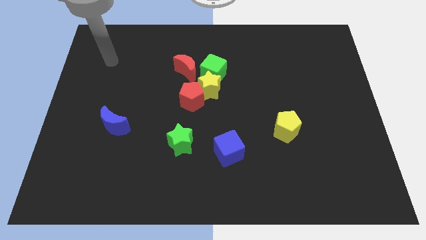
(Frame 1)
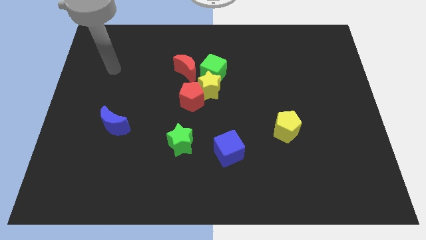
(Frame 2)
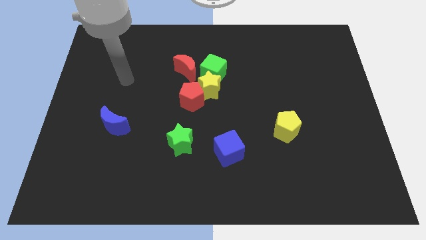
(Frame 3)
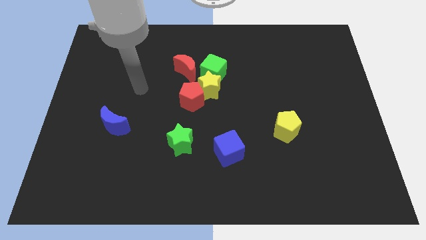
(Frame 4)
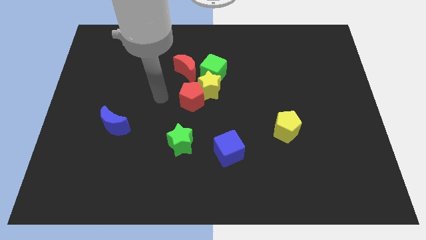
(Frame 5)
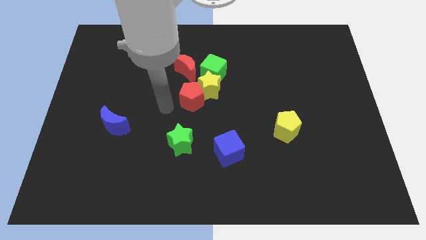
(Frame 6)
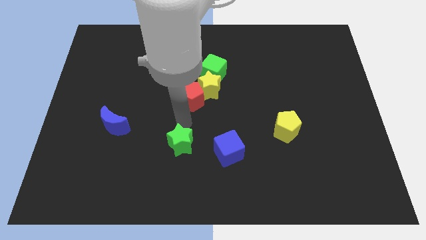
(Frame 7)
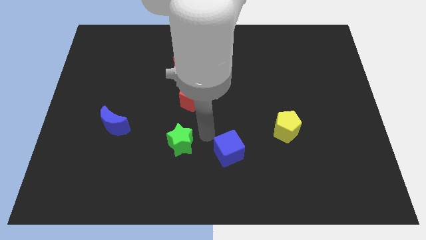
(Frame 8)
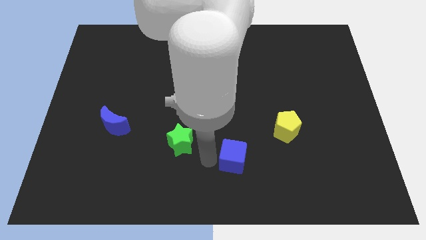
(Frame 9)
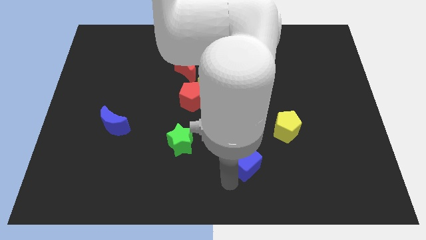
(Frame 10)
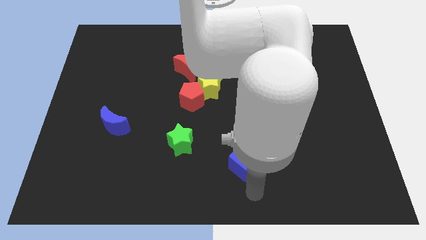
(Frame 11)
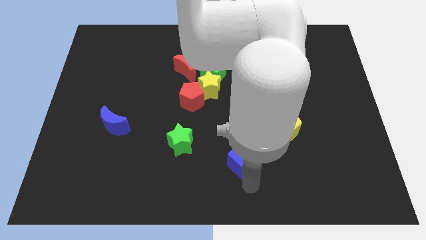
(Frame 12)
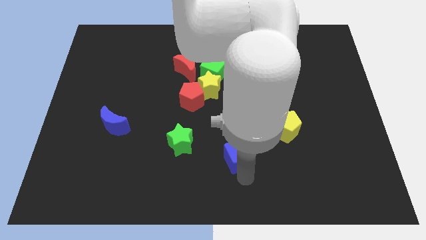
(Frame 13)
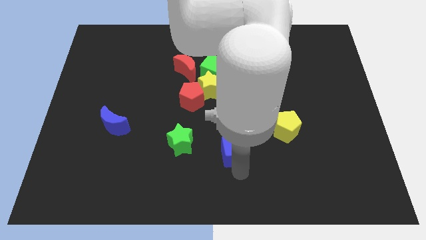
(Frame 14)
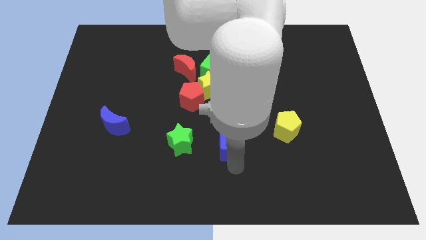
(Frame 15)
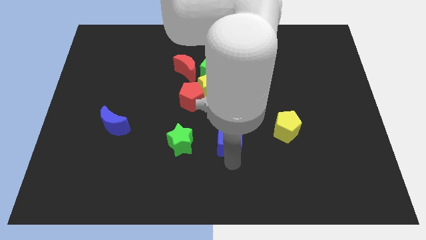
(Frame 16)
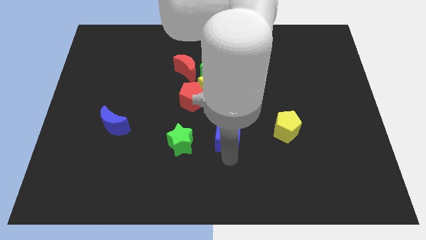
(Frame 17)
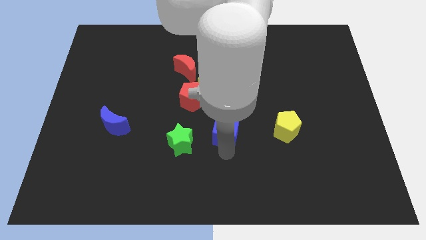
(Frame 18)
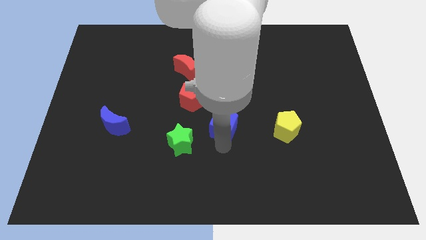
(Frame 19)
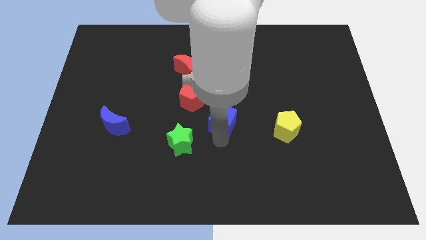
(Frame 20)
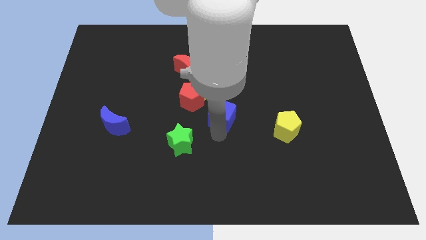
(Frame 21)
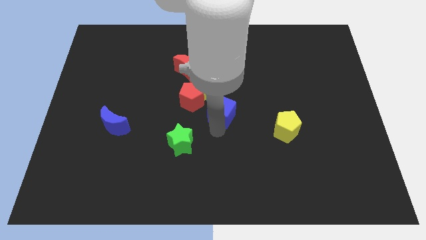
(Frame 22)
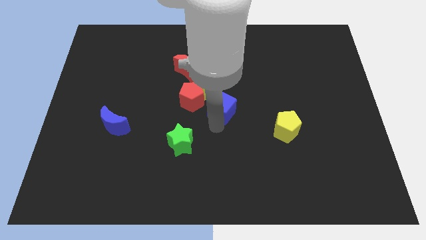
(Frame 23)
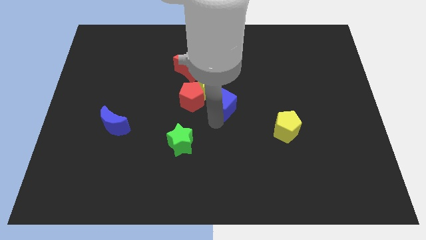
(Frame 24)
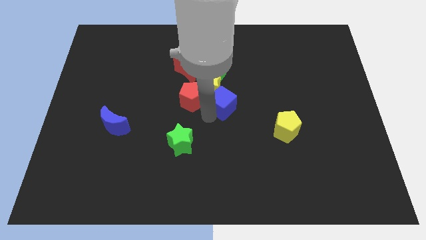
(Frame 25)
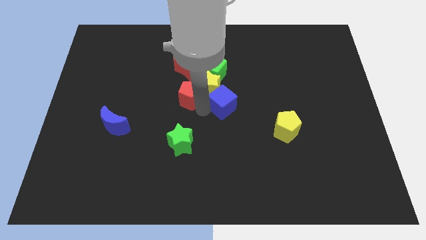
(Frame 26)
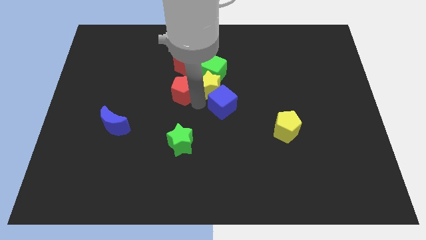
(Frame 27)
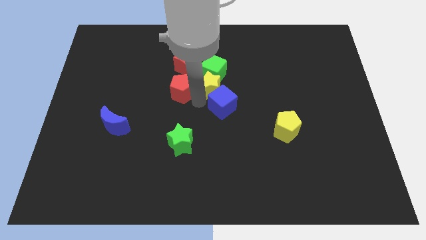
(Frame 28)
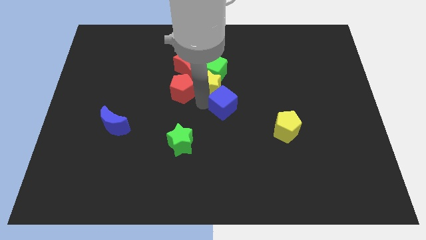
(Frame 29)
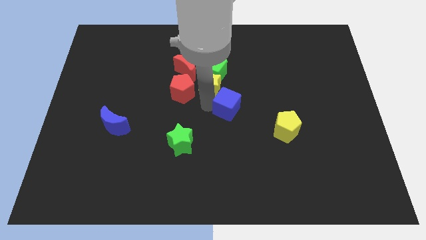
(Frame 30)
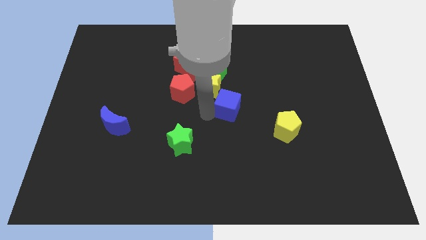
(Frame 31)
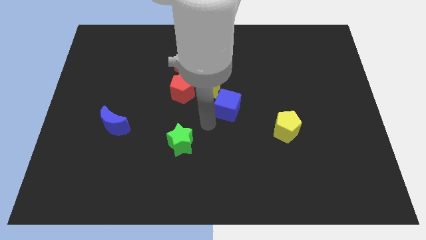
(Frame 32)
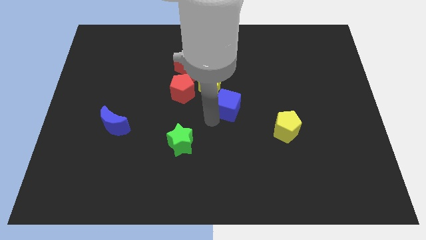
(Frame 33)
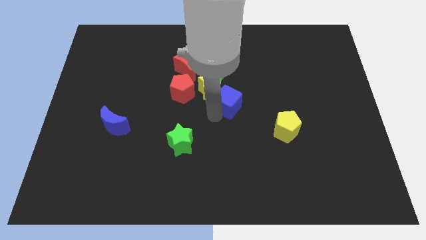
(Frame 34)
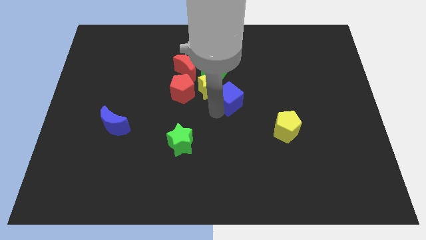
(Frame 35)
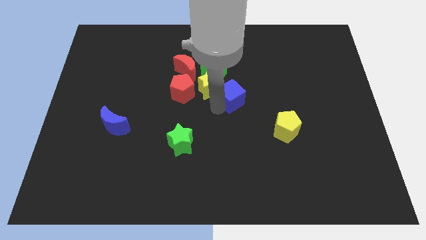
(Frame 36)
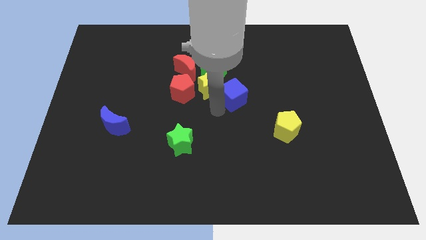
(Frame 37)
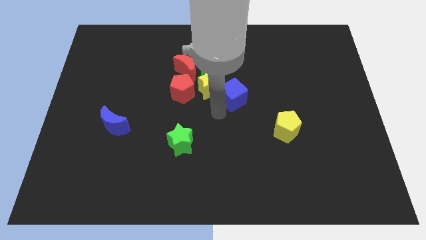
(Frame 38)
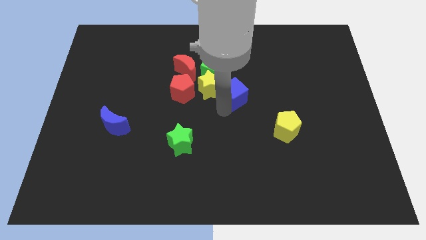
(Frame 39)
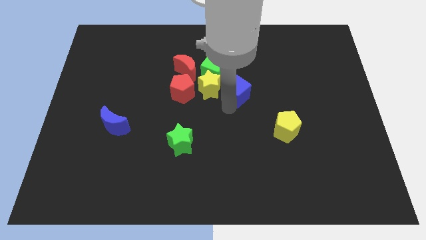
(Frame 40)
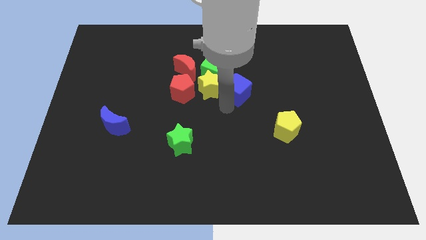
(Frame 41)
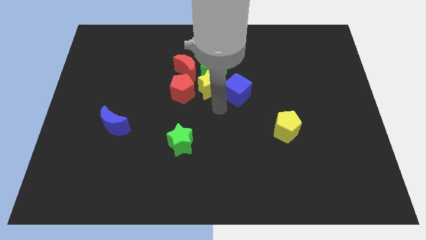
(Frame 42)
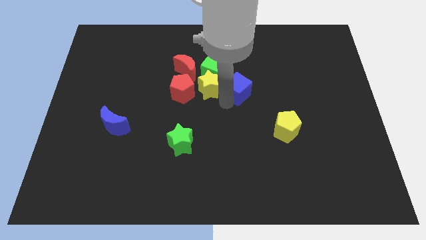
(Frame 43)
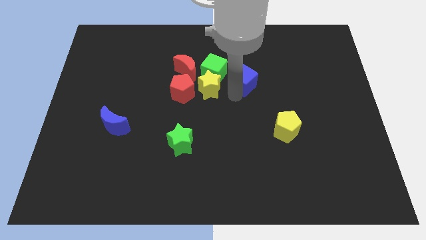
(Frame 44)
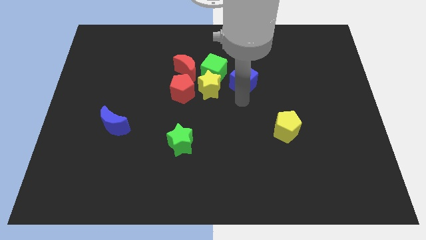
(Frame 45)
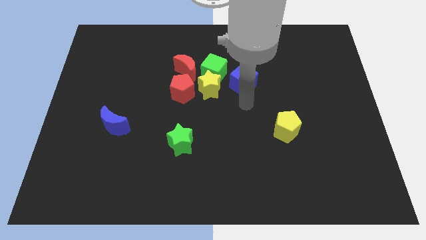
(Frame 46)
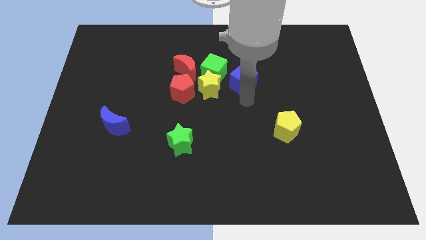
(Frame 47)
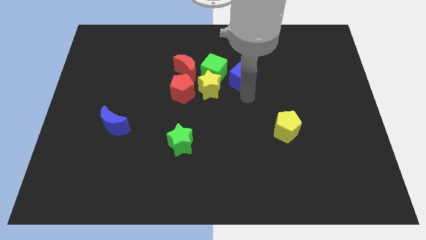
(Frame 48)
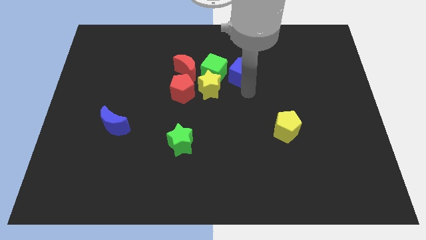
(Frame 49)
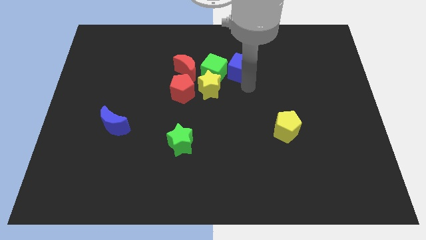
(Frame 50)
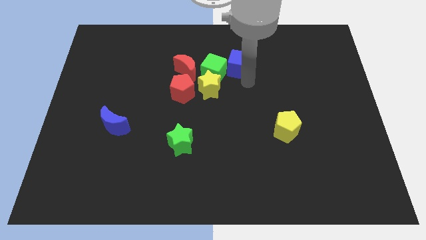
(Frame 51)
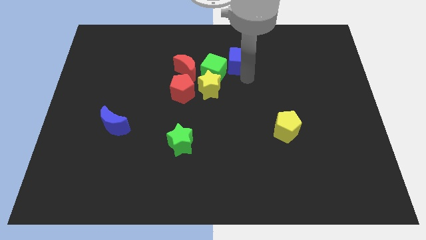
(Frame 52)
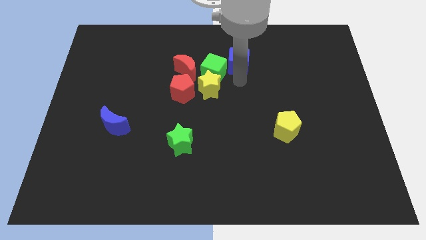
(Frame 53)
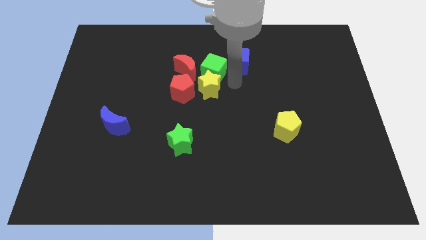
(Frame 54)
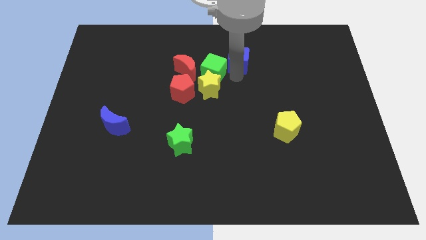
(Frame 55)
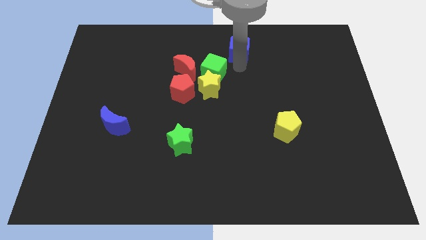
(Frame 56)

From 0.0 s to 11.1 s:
slide the blue cube to the towards your base

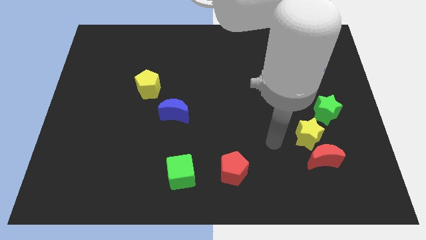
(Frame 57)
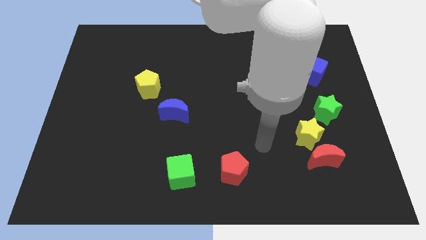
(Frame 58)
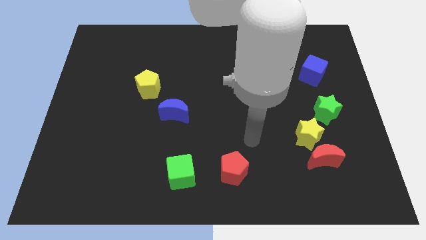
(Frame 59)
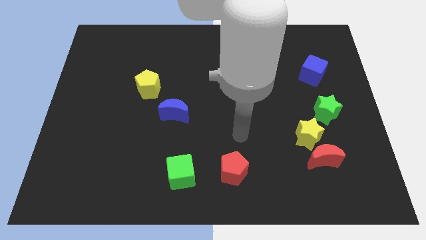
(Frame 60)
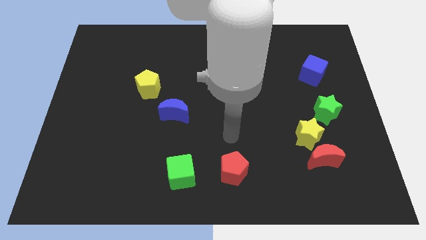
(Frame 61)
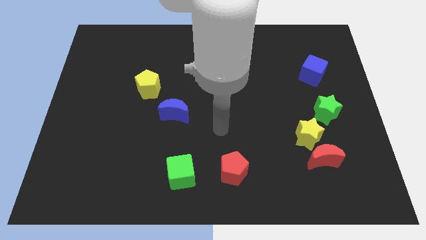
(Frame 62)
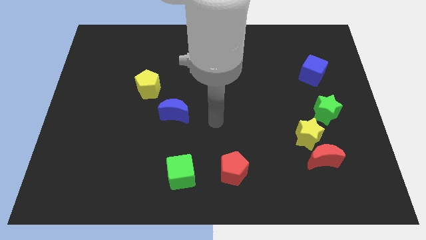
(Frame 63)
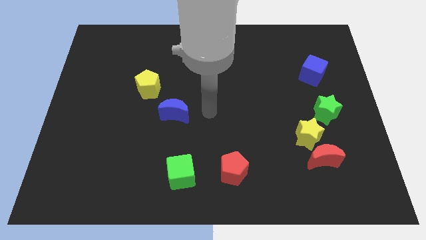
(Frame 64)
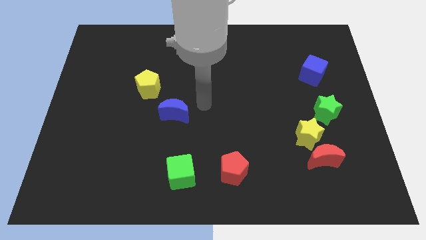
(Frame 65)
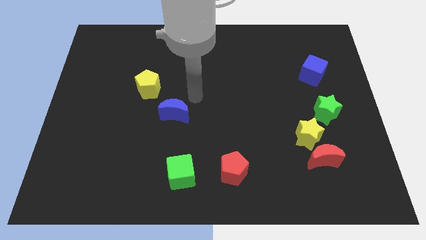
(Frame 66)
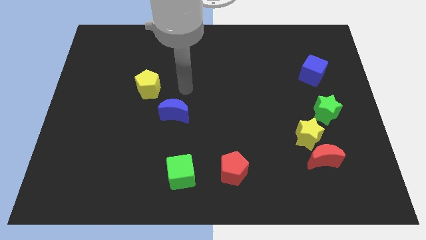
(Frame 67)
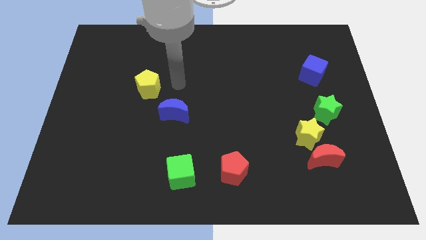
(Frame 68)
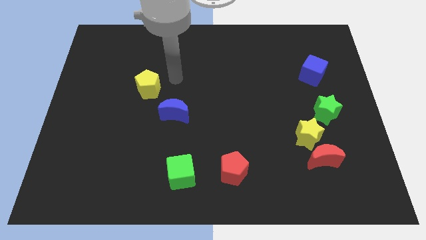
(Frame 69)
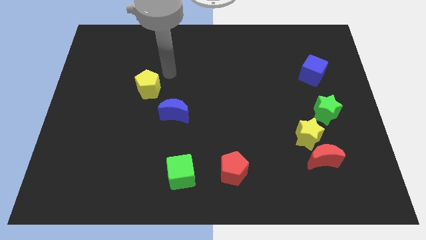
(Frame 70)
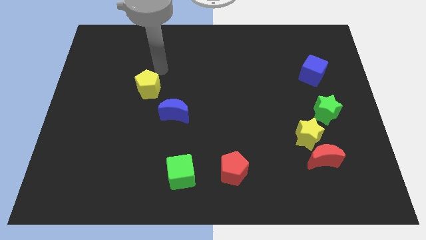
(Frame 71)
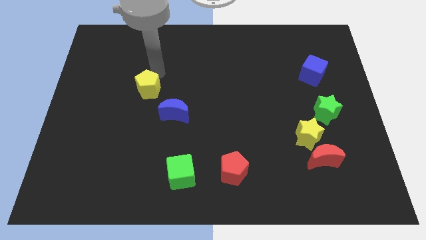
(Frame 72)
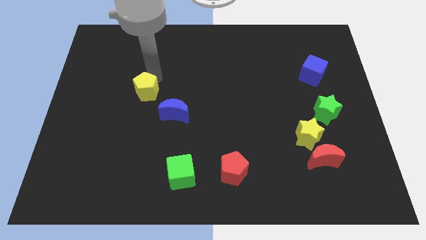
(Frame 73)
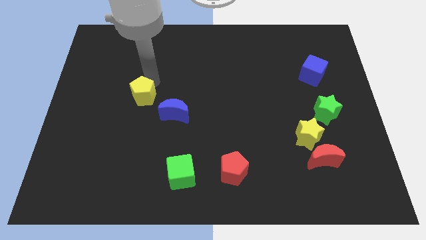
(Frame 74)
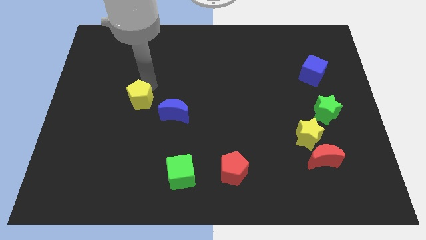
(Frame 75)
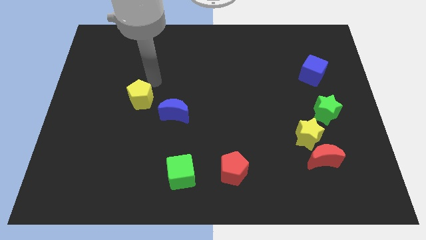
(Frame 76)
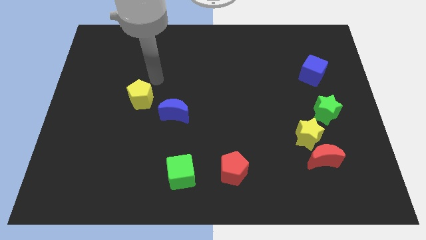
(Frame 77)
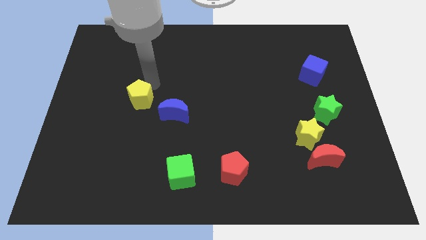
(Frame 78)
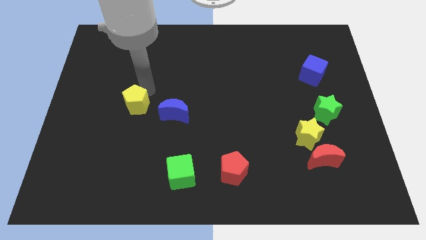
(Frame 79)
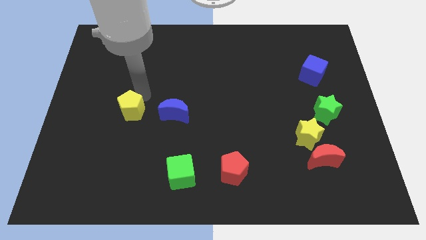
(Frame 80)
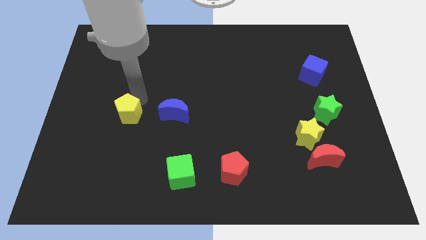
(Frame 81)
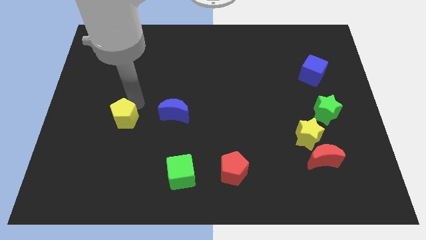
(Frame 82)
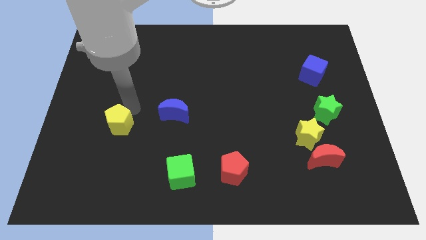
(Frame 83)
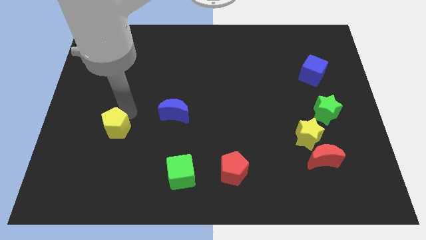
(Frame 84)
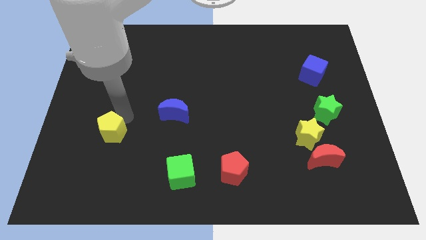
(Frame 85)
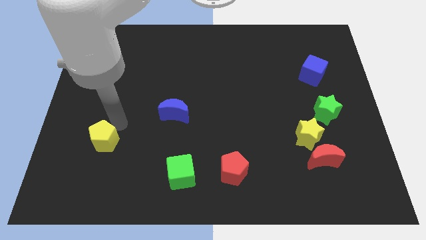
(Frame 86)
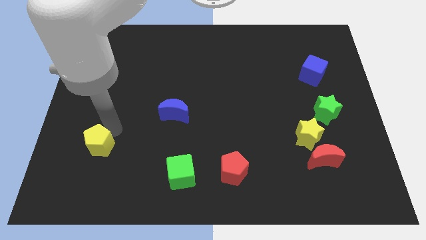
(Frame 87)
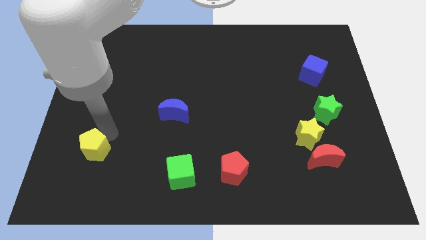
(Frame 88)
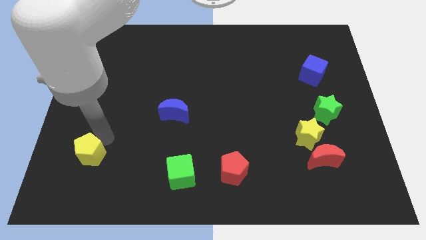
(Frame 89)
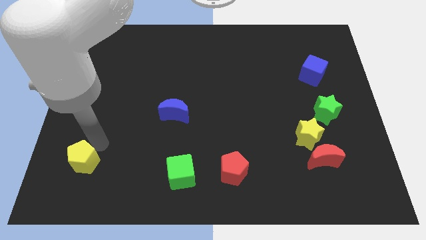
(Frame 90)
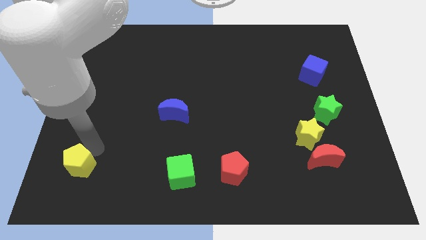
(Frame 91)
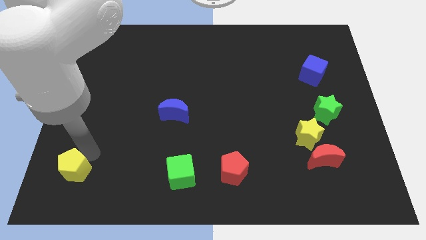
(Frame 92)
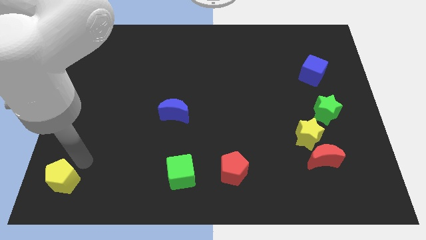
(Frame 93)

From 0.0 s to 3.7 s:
move the yellow pentagon to the bottom left
